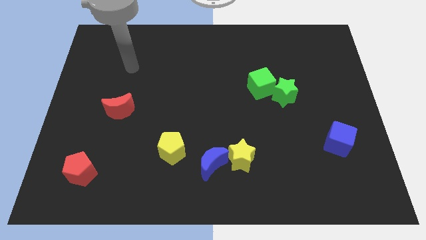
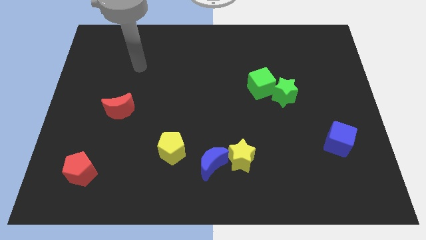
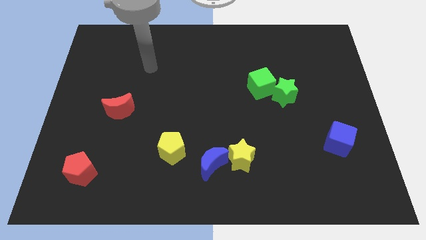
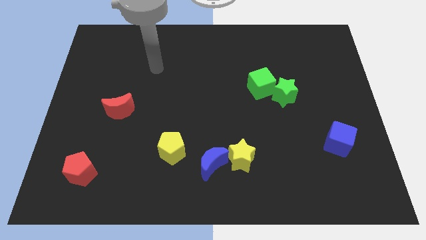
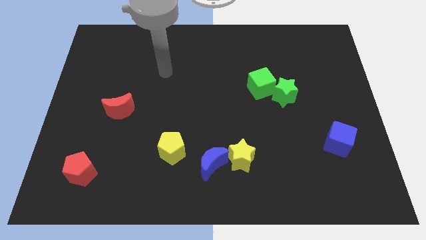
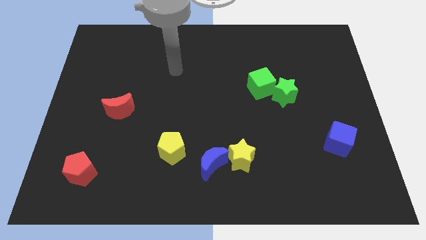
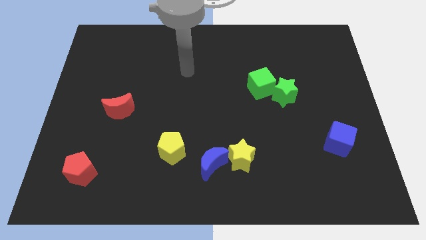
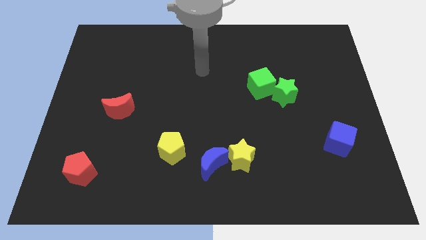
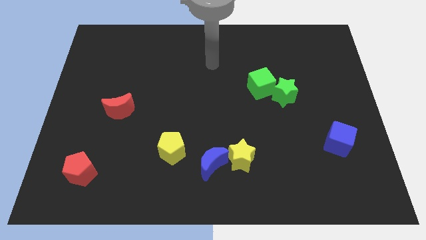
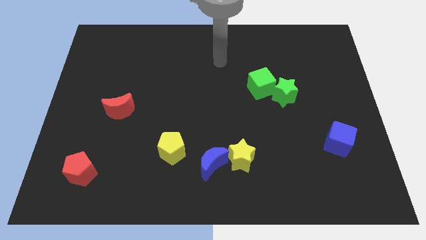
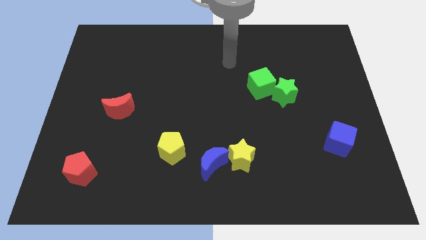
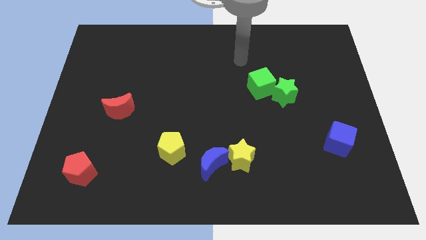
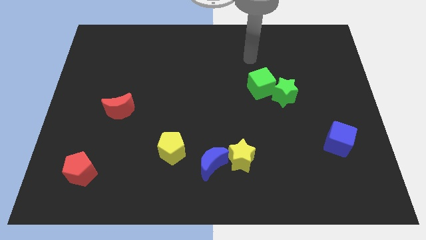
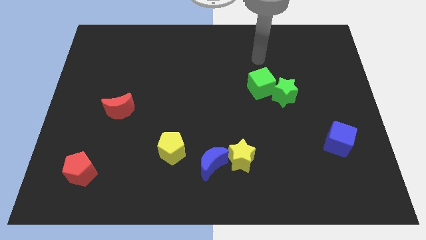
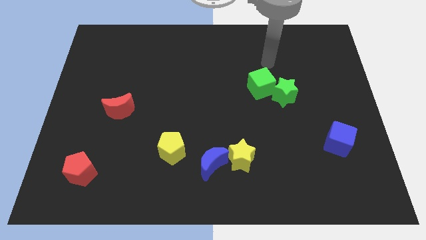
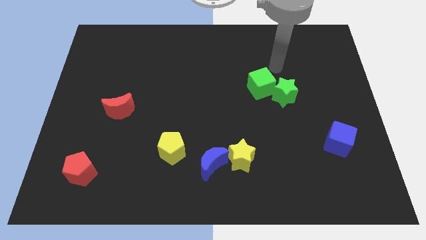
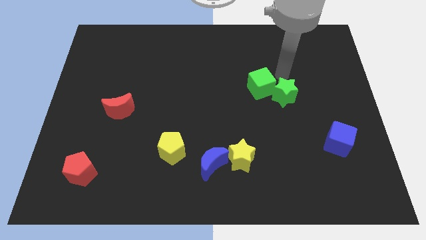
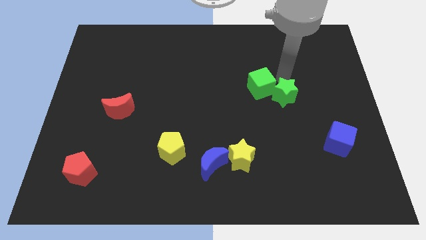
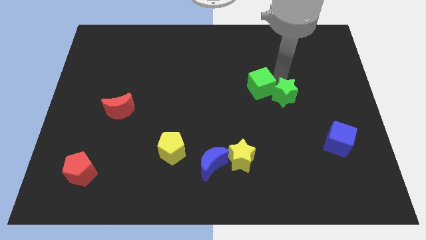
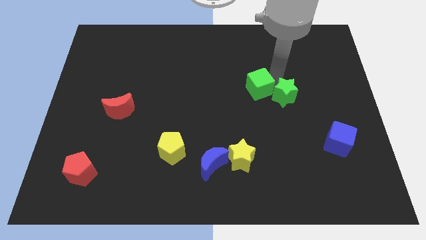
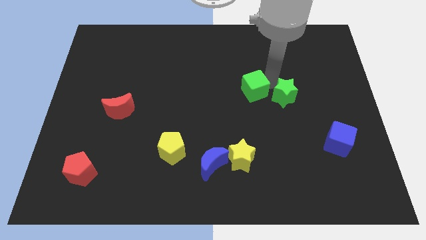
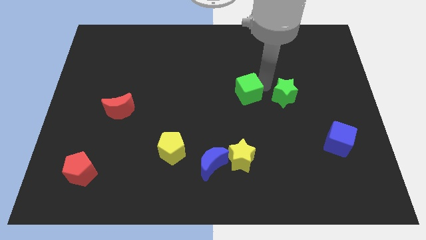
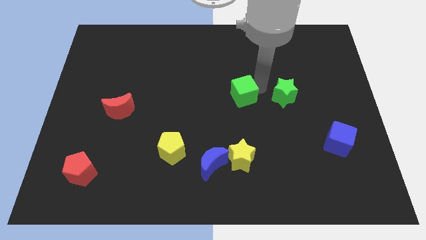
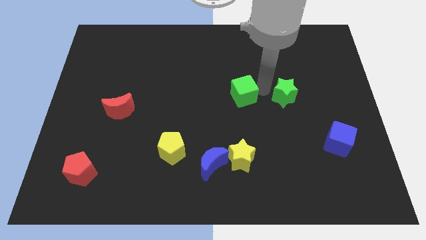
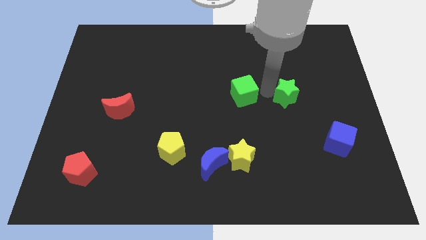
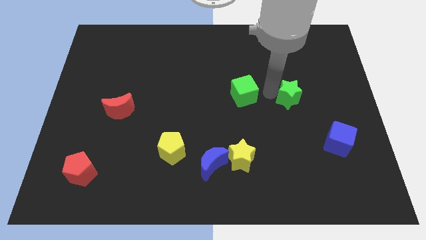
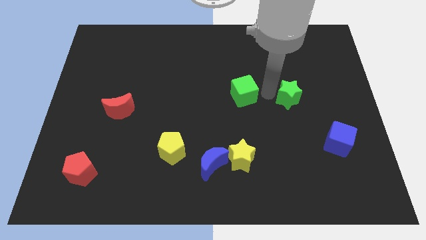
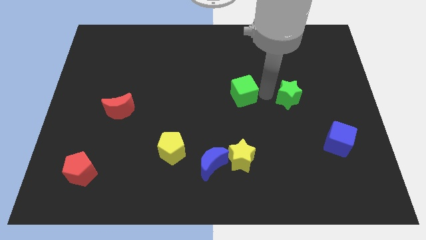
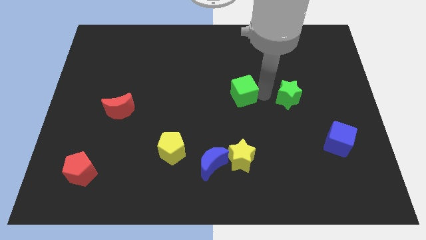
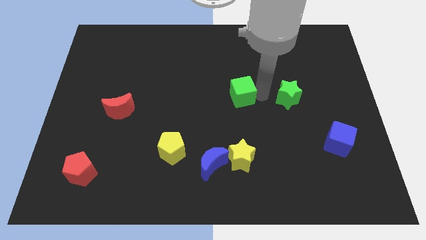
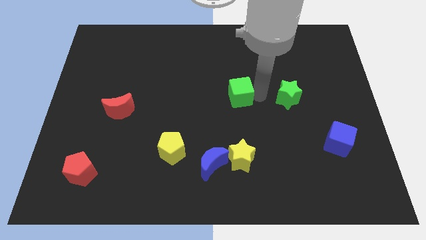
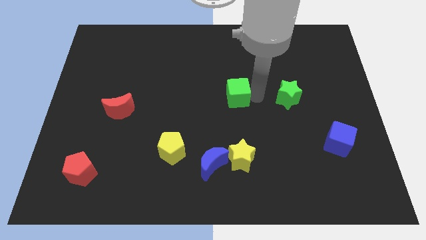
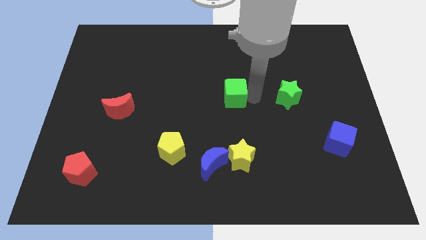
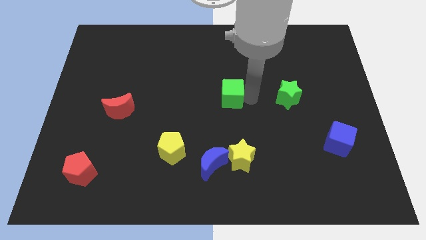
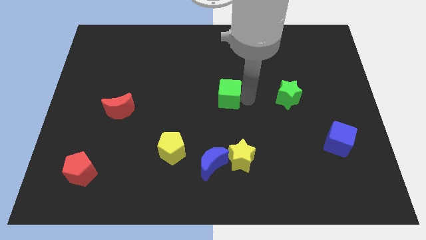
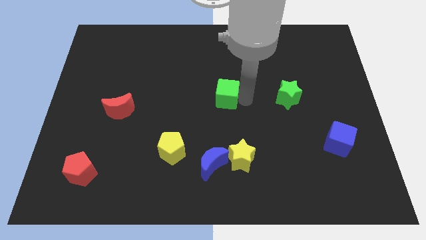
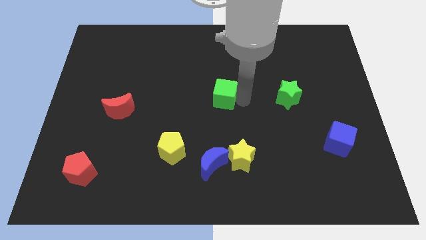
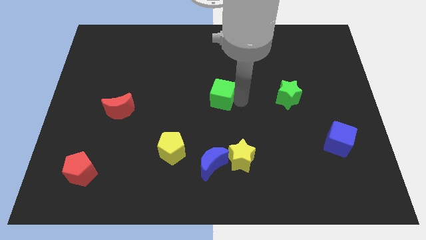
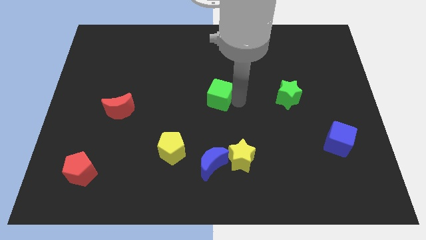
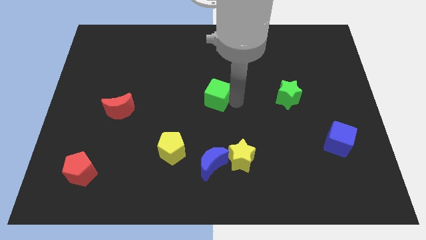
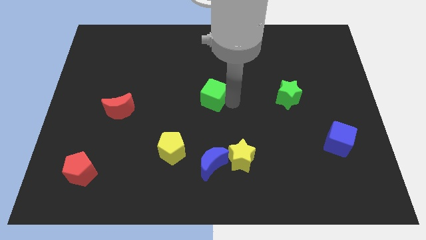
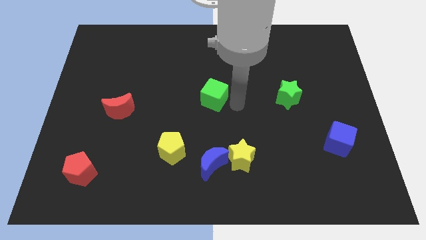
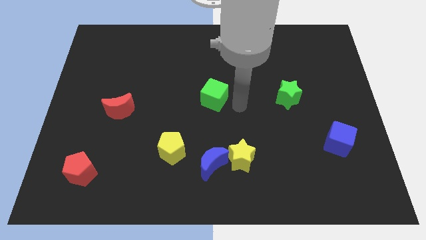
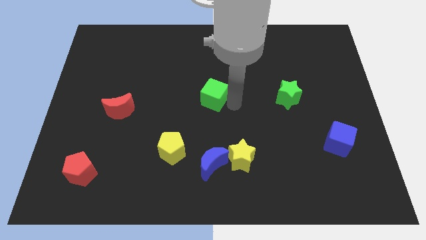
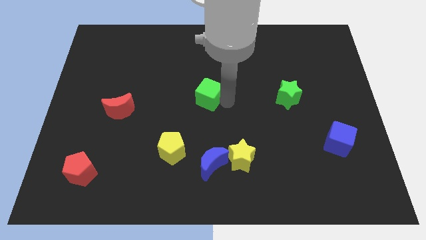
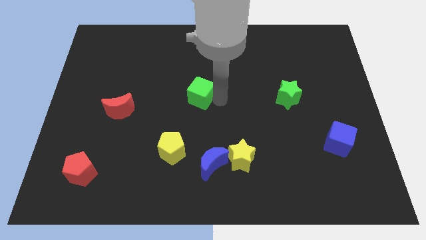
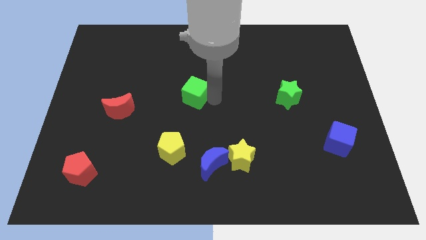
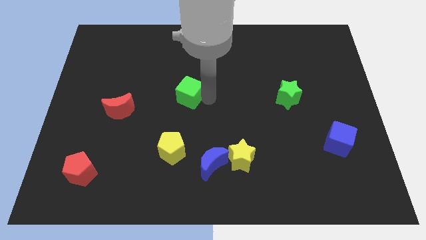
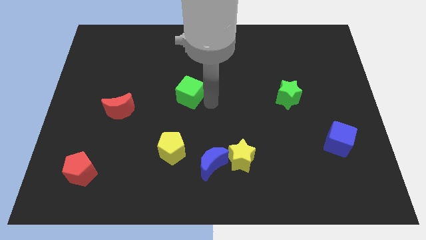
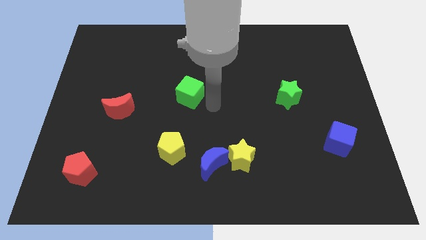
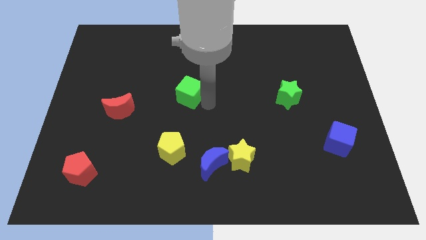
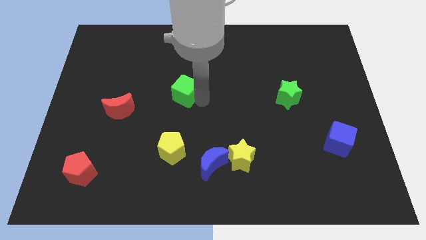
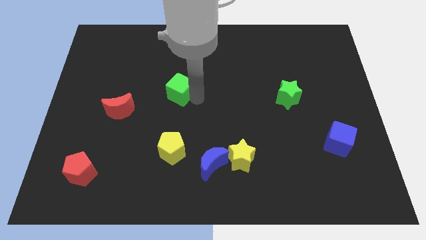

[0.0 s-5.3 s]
move the green cube to the left

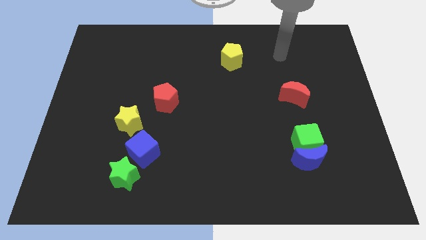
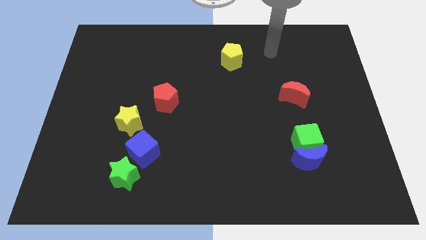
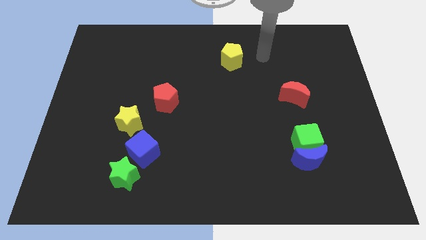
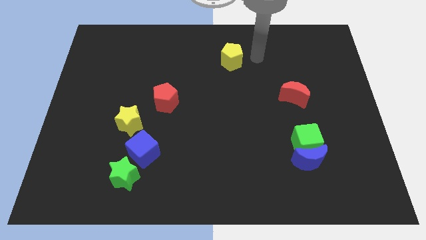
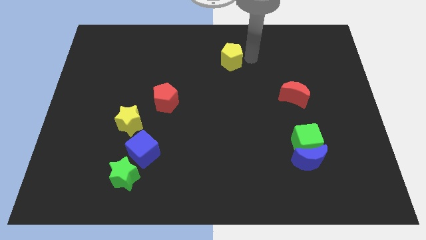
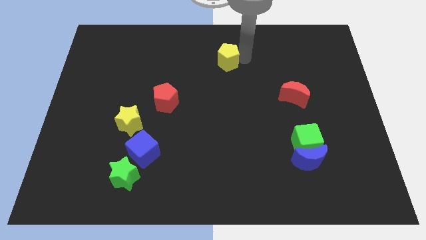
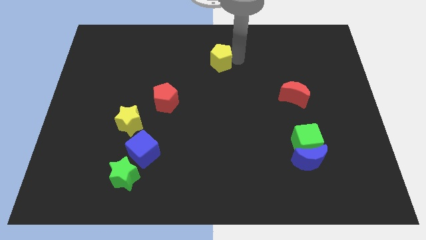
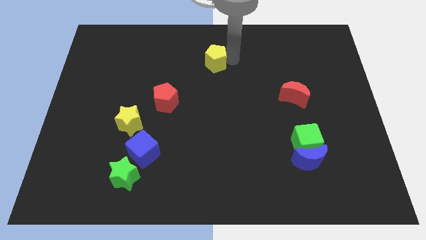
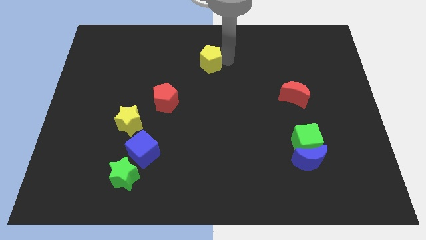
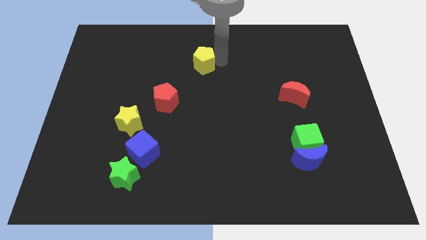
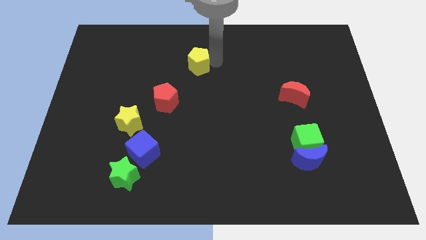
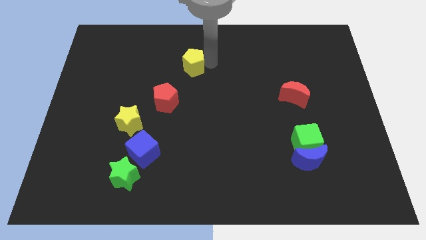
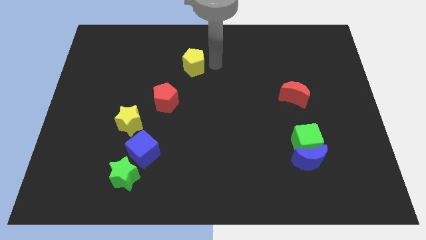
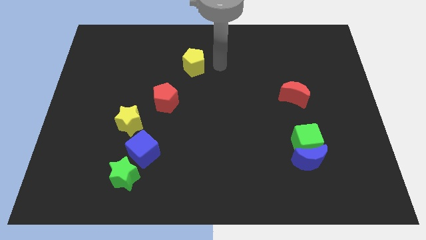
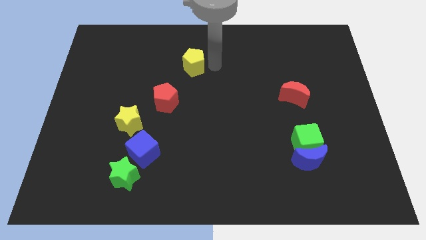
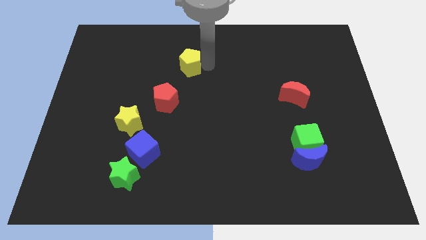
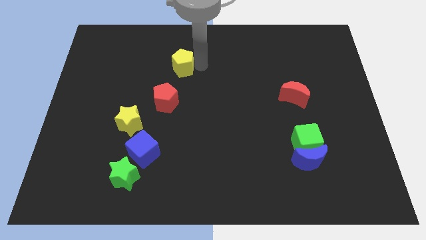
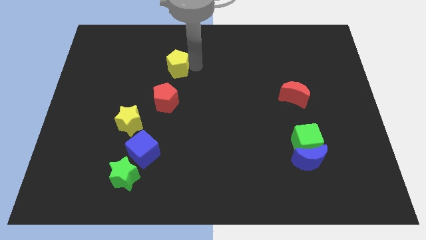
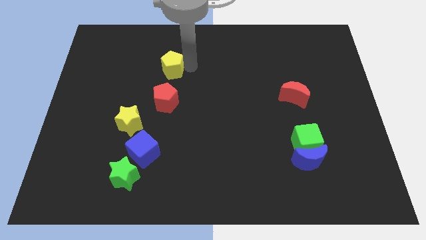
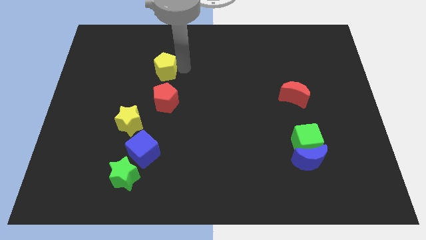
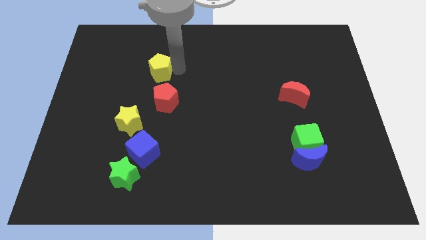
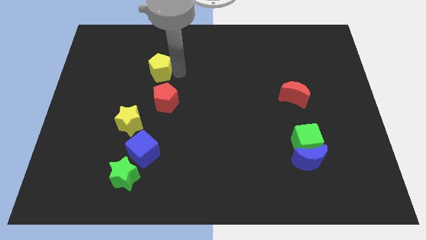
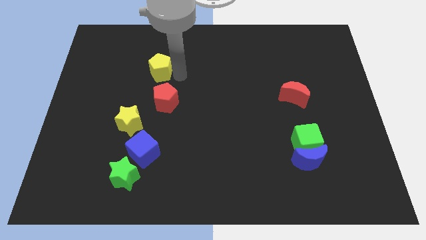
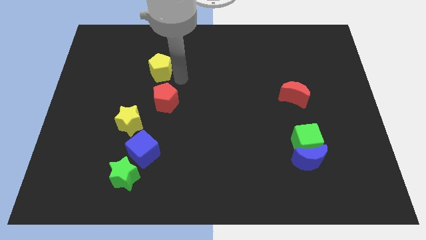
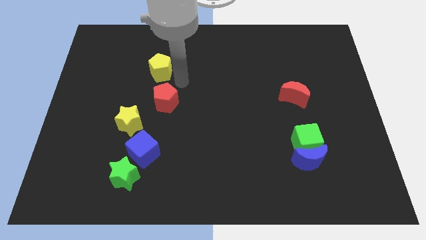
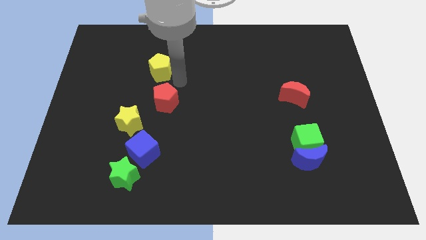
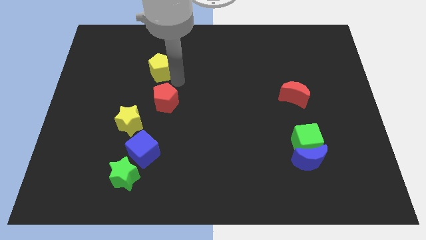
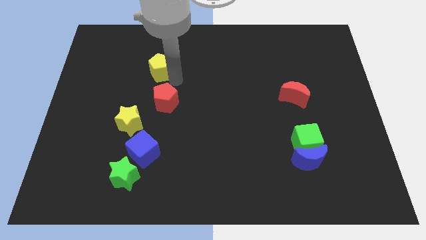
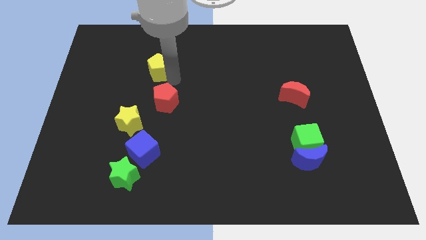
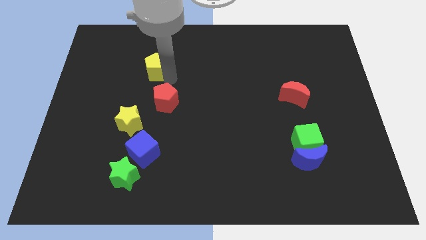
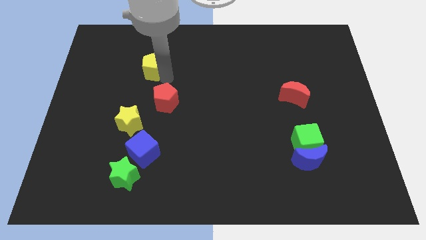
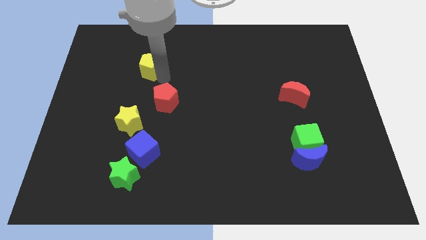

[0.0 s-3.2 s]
move the yellow pentagon left
